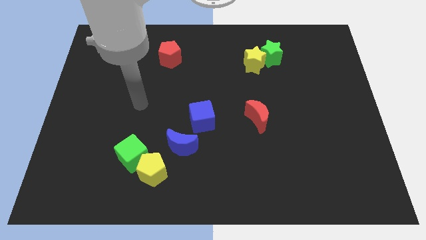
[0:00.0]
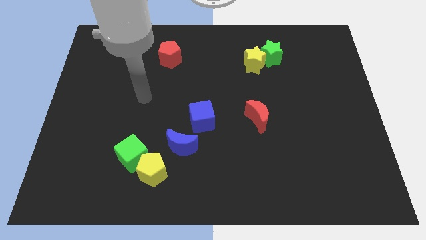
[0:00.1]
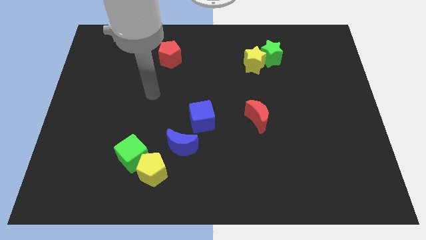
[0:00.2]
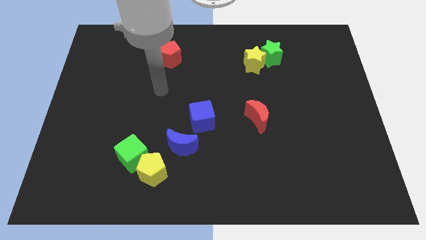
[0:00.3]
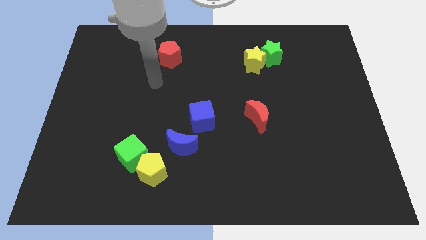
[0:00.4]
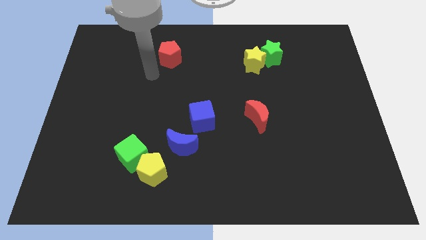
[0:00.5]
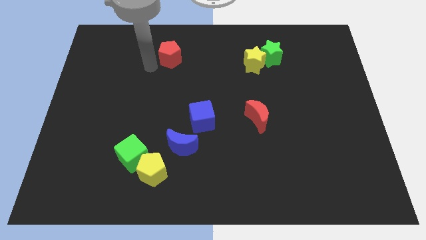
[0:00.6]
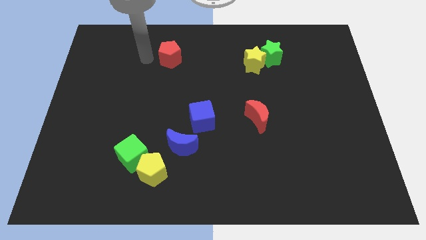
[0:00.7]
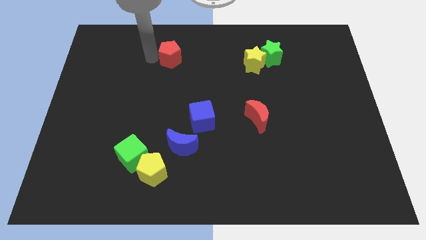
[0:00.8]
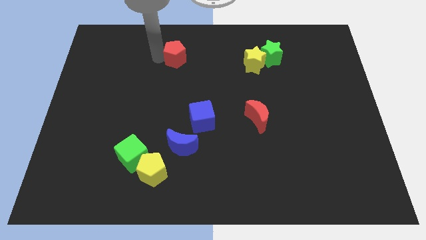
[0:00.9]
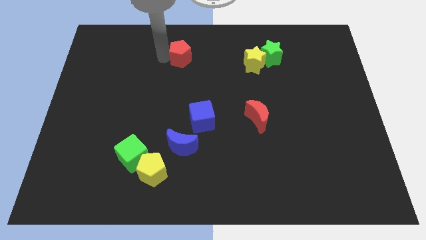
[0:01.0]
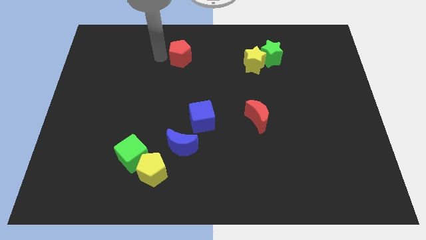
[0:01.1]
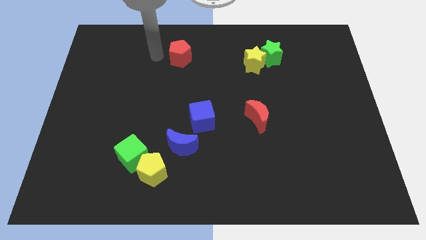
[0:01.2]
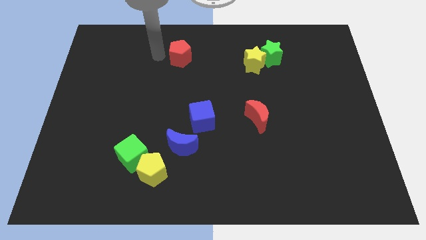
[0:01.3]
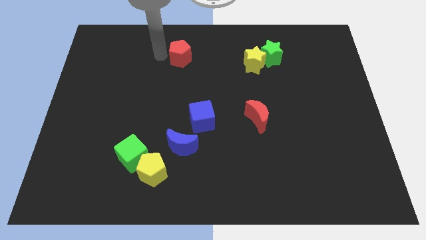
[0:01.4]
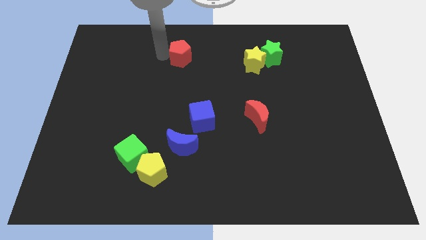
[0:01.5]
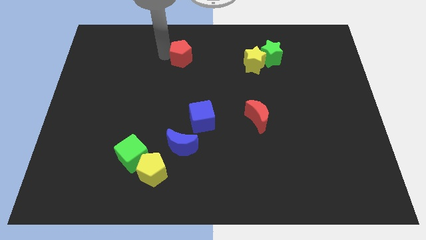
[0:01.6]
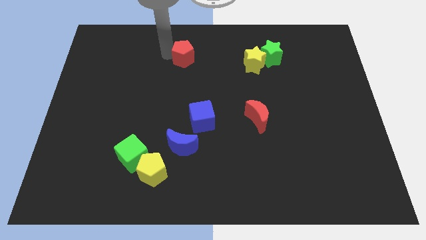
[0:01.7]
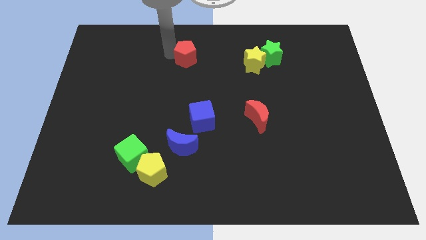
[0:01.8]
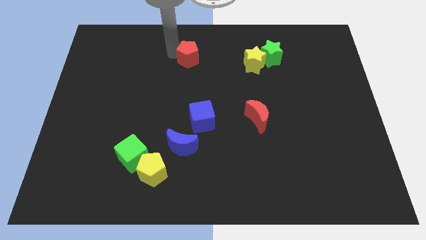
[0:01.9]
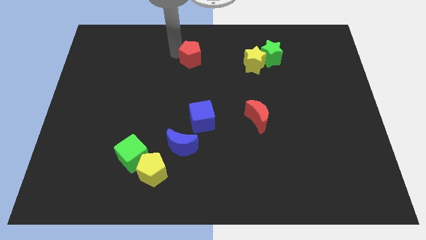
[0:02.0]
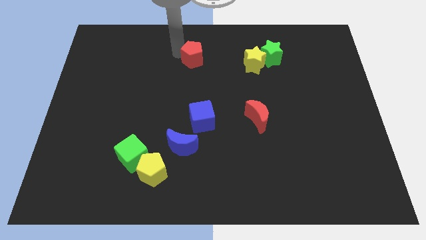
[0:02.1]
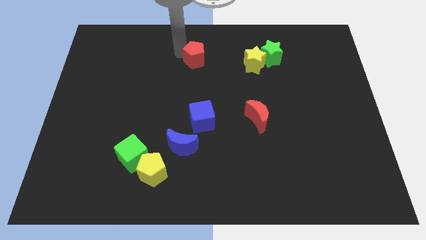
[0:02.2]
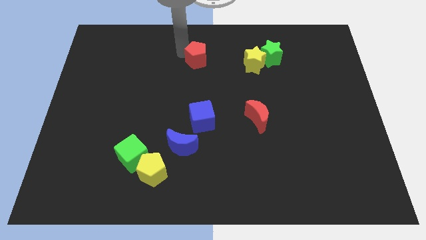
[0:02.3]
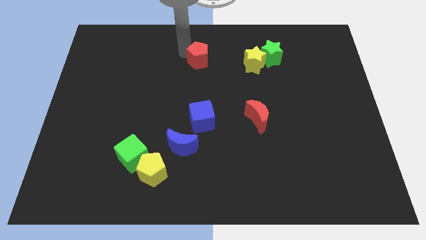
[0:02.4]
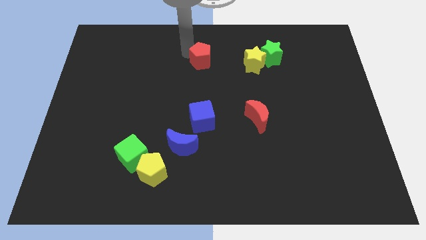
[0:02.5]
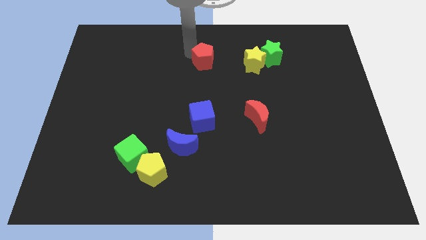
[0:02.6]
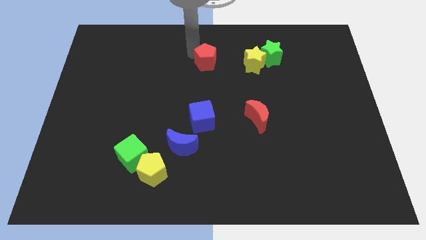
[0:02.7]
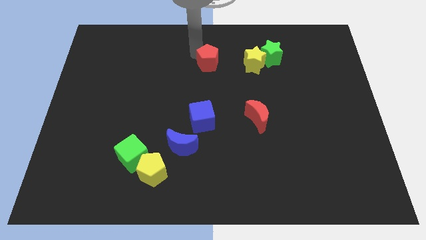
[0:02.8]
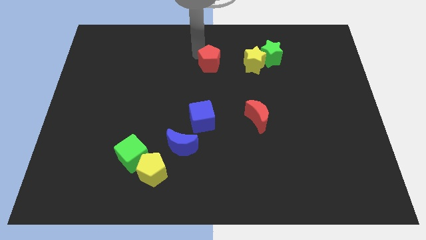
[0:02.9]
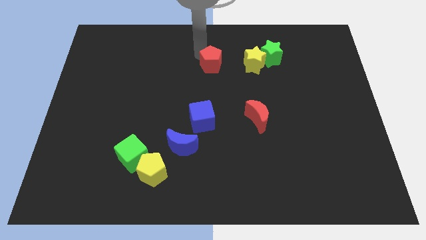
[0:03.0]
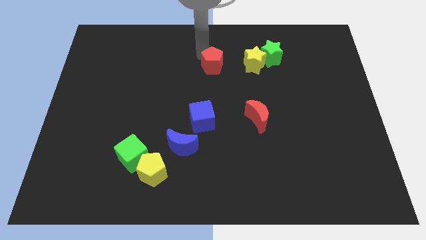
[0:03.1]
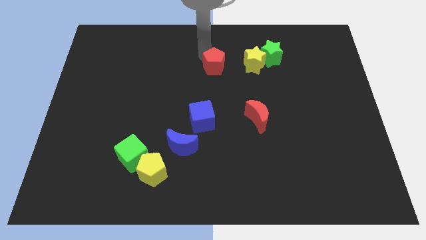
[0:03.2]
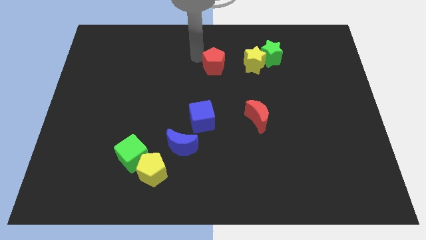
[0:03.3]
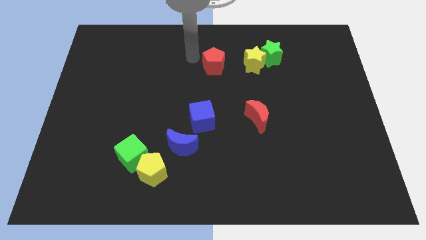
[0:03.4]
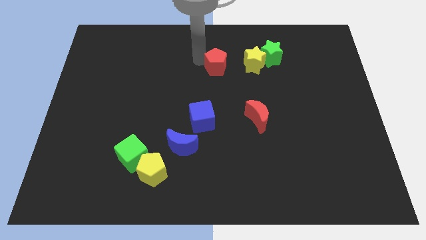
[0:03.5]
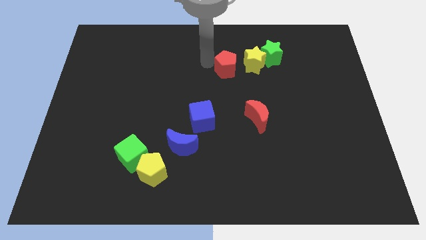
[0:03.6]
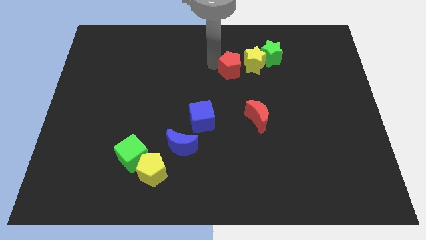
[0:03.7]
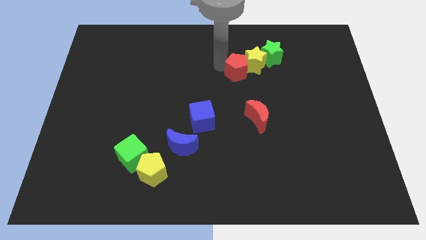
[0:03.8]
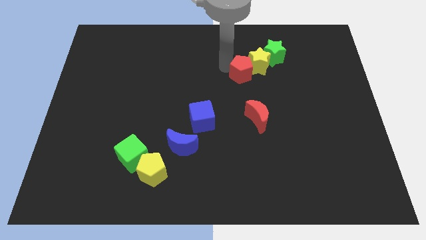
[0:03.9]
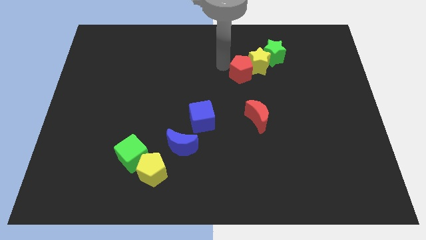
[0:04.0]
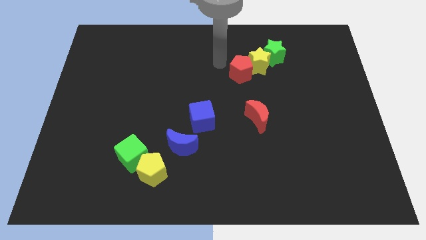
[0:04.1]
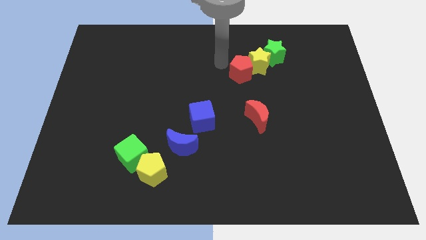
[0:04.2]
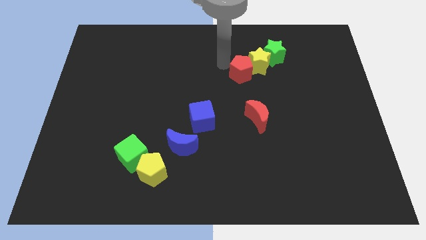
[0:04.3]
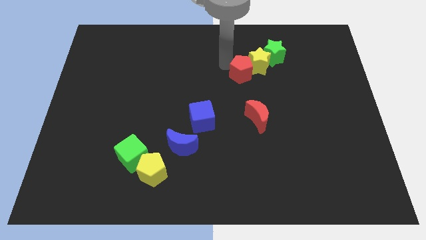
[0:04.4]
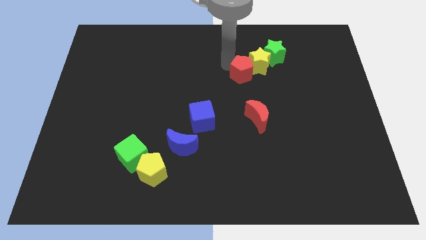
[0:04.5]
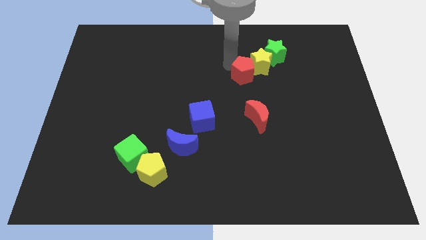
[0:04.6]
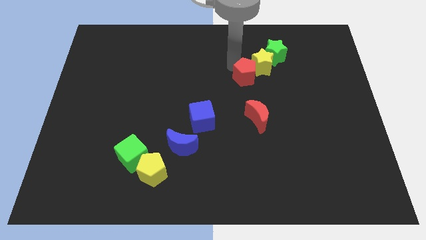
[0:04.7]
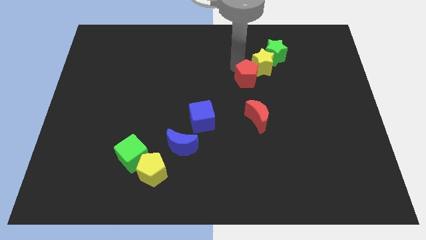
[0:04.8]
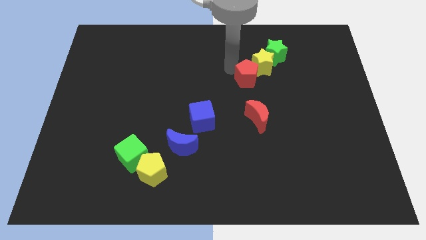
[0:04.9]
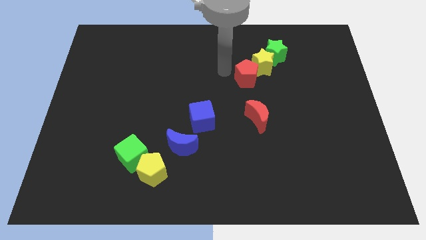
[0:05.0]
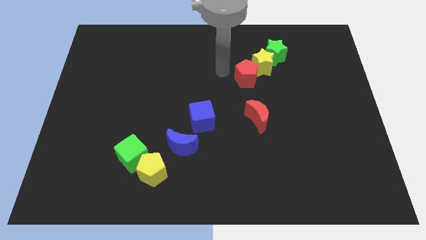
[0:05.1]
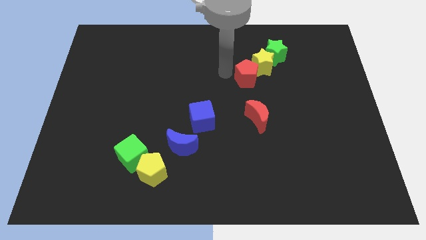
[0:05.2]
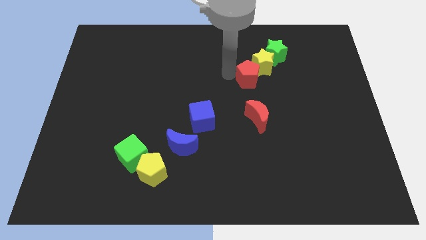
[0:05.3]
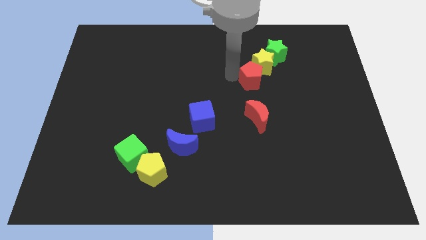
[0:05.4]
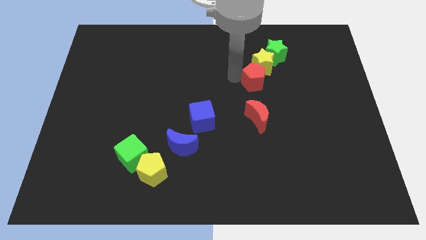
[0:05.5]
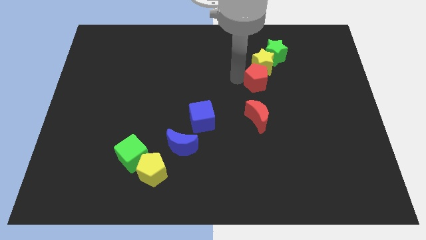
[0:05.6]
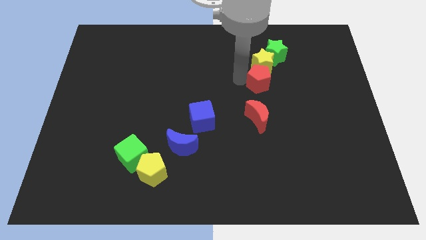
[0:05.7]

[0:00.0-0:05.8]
put the red pentagon to the bottom side of the green star
